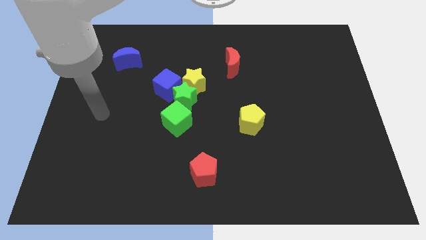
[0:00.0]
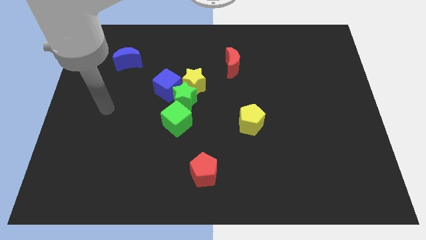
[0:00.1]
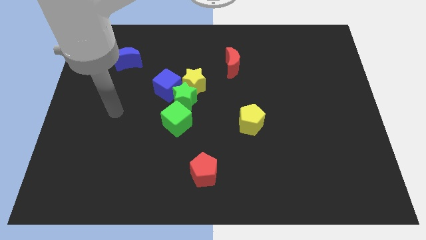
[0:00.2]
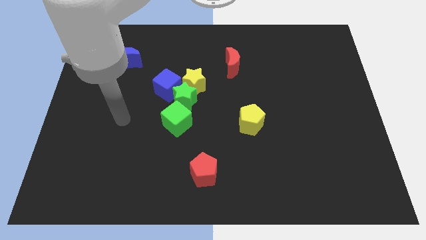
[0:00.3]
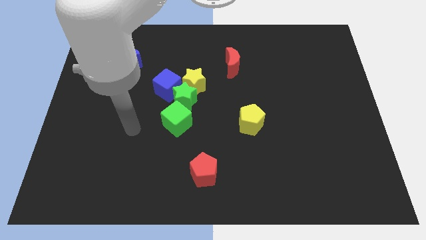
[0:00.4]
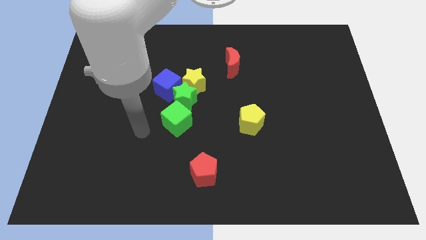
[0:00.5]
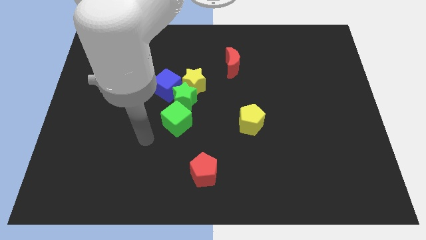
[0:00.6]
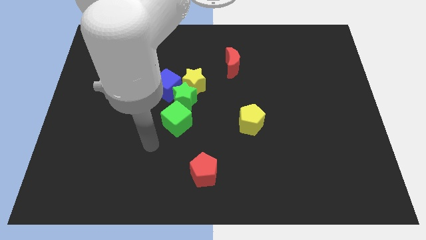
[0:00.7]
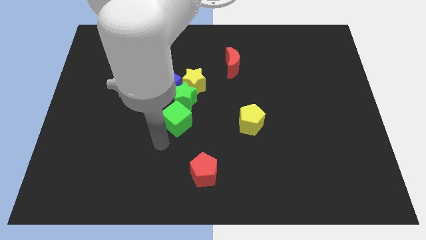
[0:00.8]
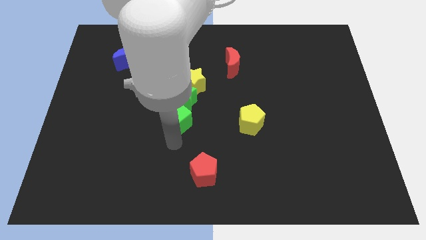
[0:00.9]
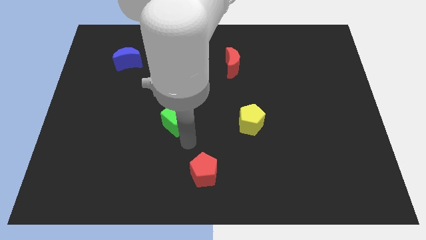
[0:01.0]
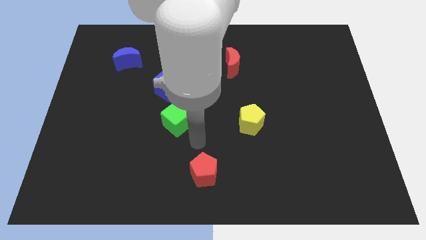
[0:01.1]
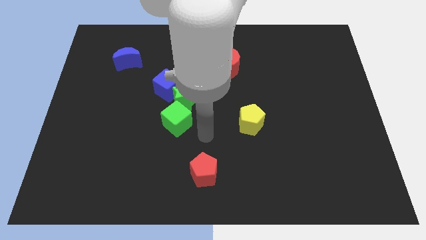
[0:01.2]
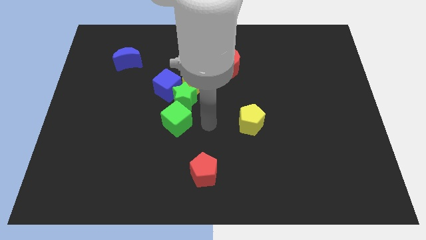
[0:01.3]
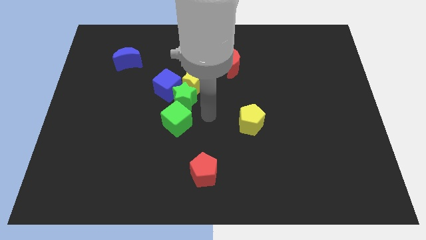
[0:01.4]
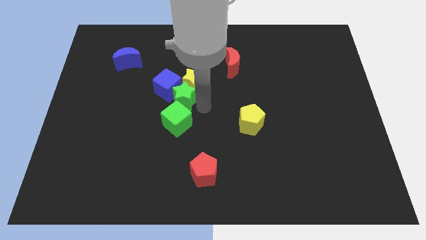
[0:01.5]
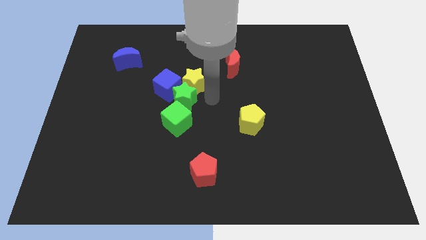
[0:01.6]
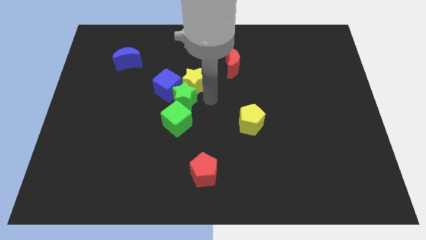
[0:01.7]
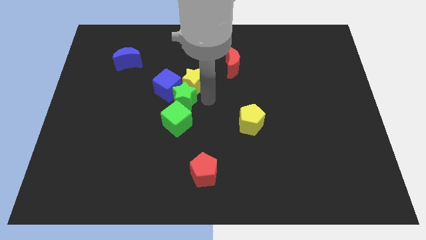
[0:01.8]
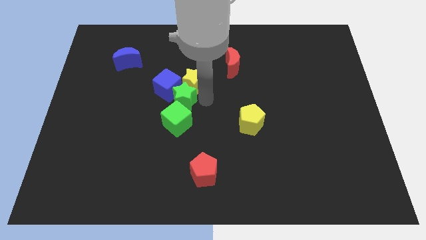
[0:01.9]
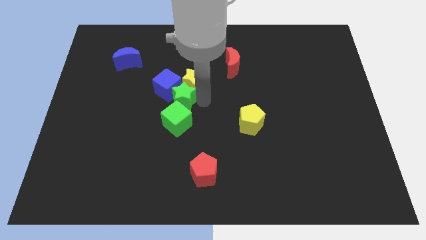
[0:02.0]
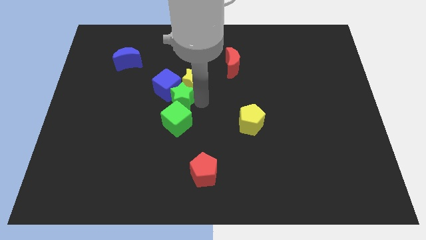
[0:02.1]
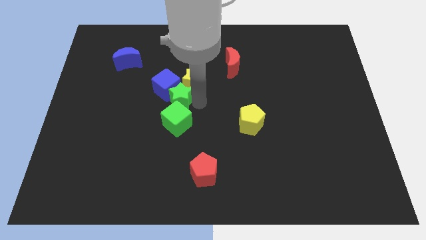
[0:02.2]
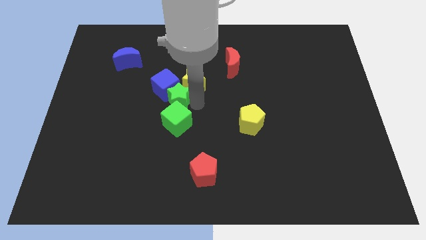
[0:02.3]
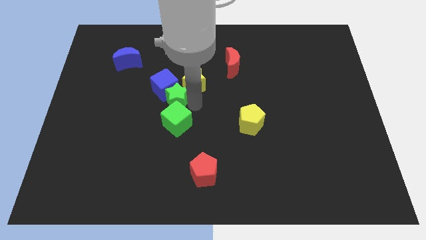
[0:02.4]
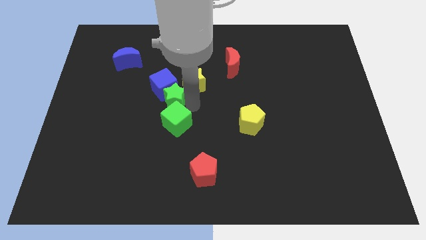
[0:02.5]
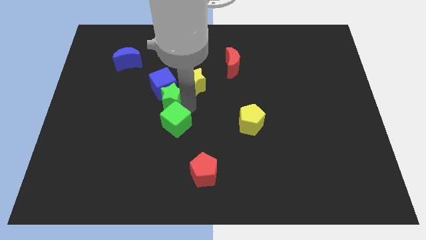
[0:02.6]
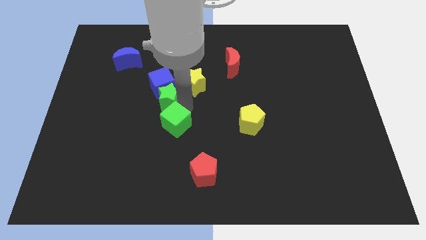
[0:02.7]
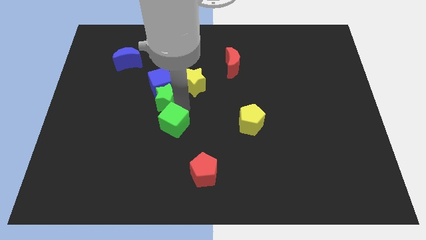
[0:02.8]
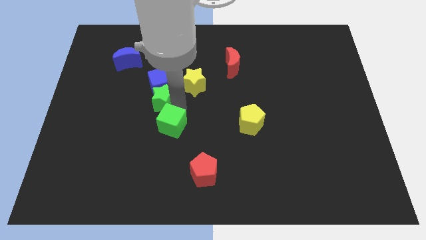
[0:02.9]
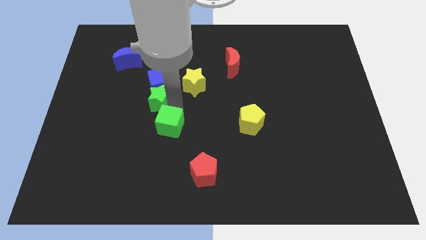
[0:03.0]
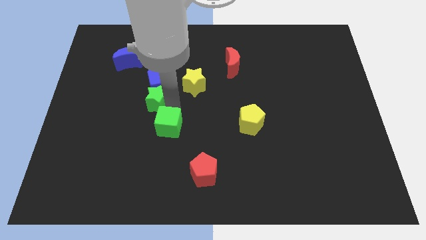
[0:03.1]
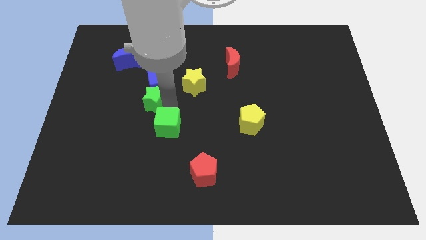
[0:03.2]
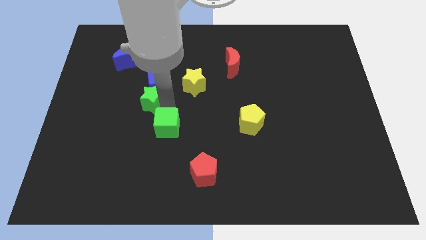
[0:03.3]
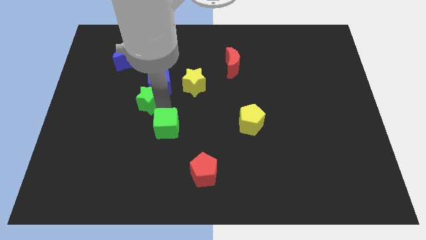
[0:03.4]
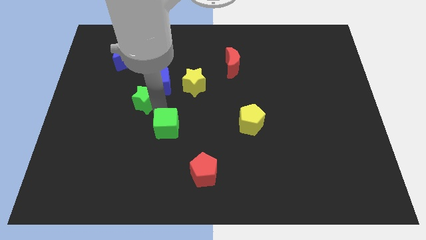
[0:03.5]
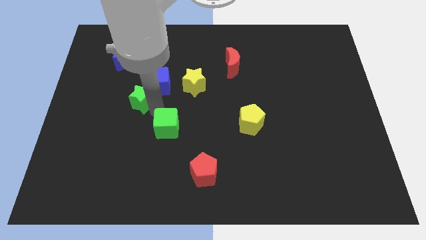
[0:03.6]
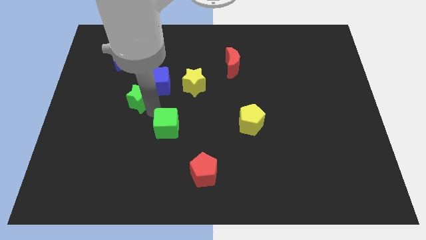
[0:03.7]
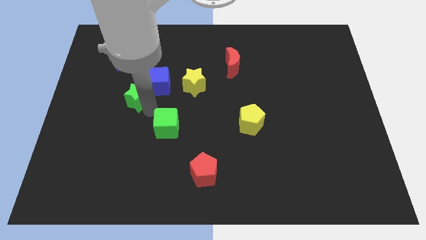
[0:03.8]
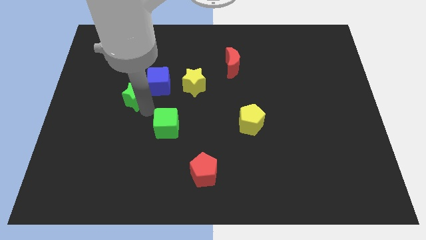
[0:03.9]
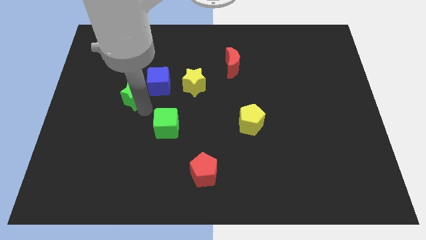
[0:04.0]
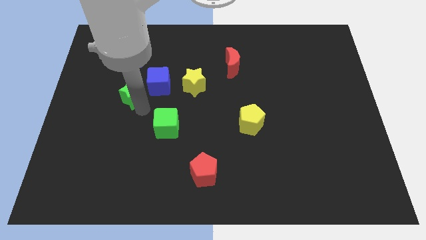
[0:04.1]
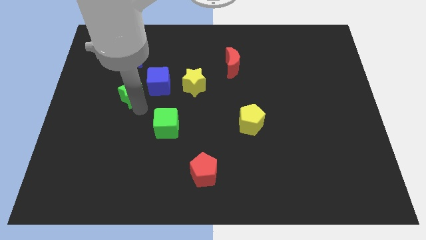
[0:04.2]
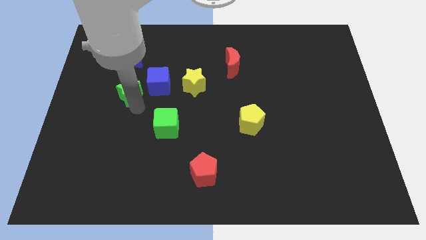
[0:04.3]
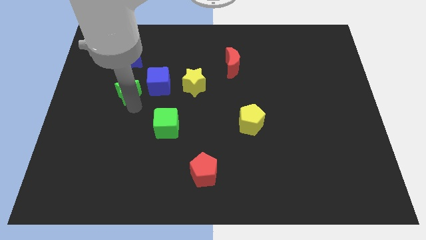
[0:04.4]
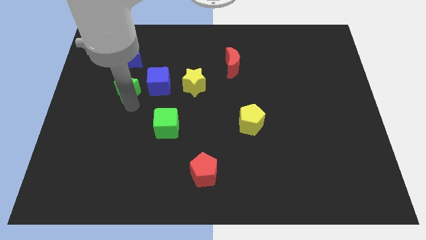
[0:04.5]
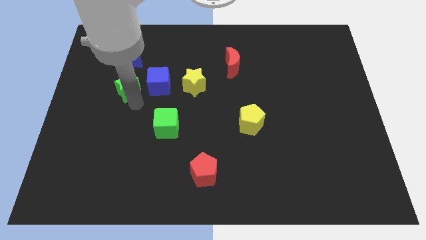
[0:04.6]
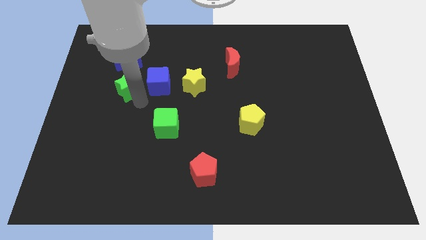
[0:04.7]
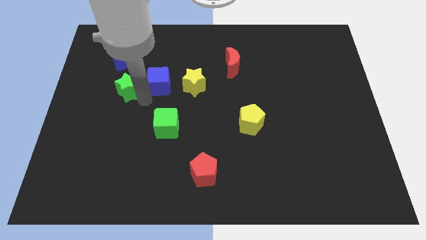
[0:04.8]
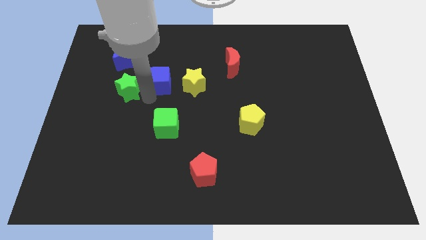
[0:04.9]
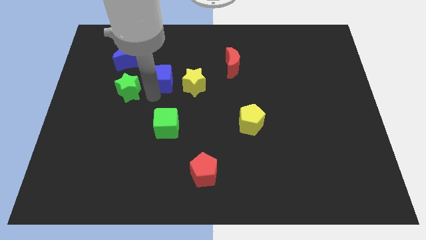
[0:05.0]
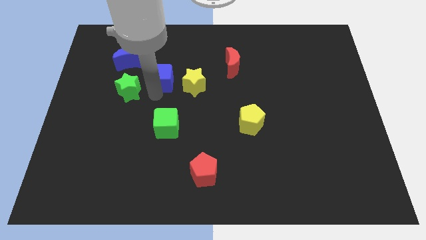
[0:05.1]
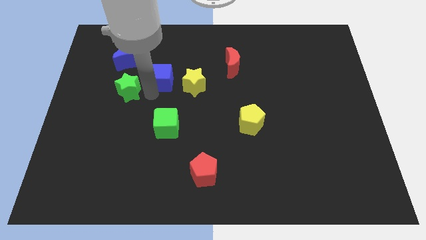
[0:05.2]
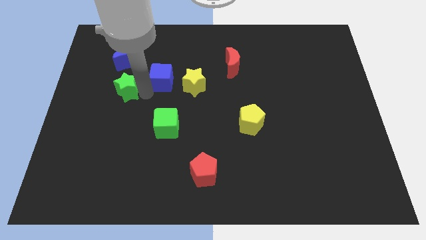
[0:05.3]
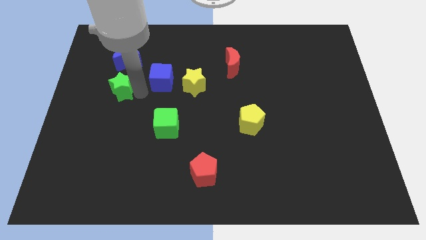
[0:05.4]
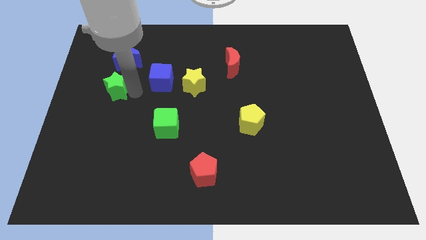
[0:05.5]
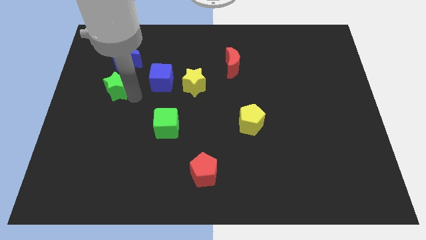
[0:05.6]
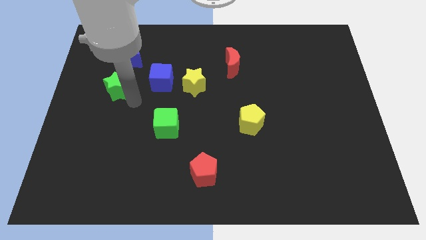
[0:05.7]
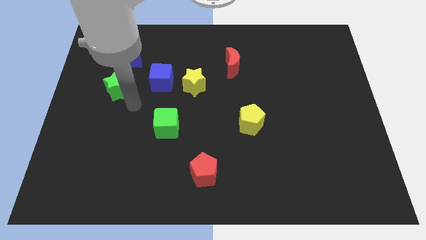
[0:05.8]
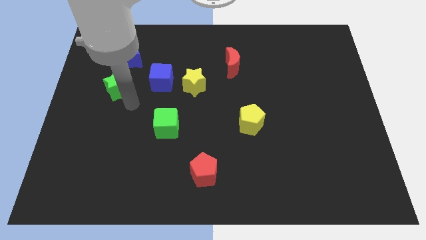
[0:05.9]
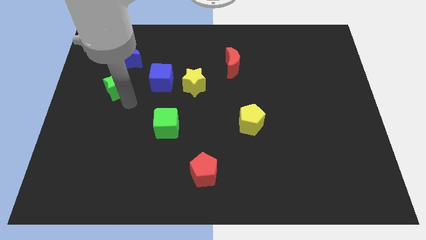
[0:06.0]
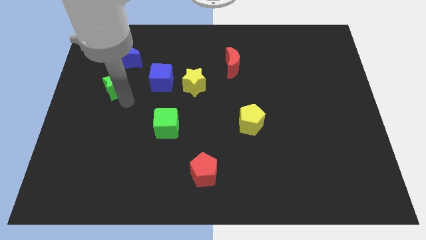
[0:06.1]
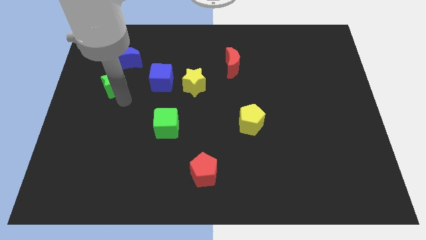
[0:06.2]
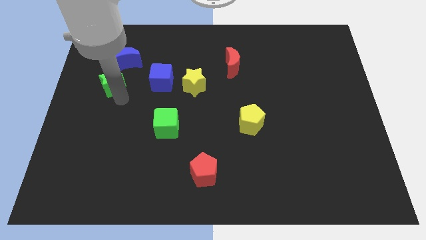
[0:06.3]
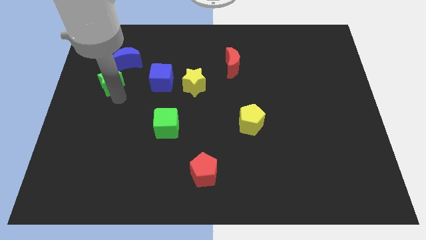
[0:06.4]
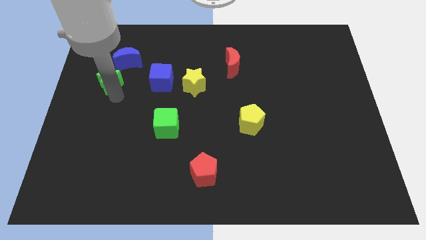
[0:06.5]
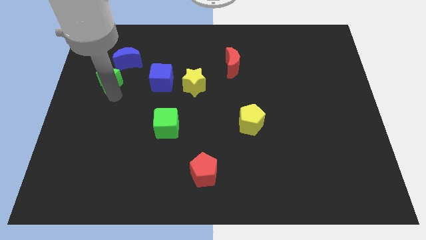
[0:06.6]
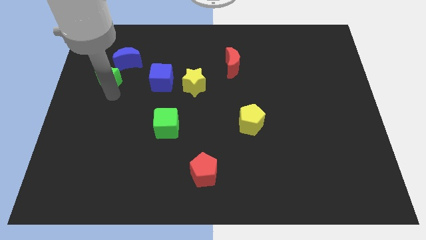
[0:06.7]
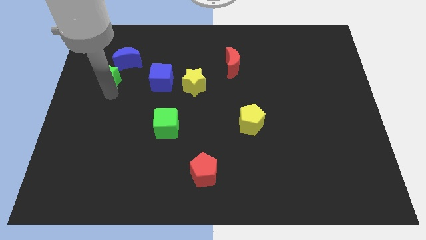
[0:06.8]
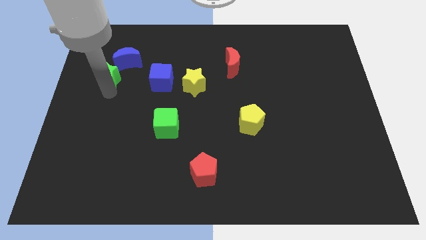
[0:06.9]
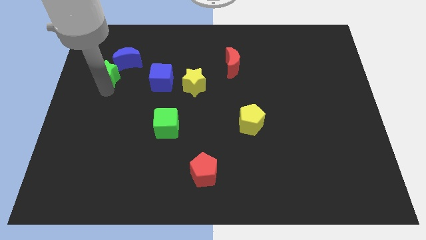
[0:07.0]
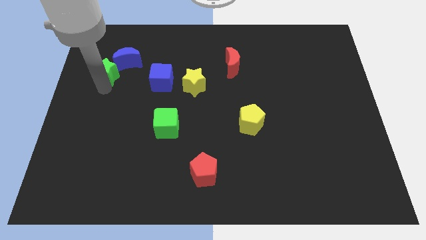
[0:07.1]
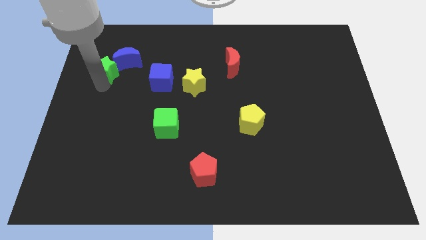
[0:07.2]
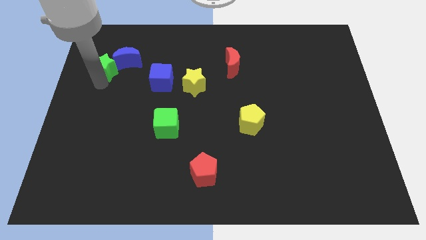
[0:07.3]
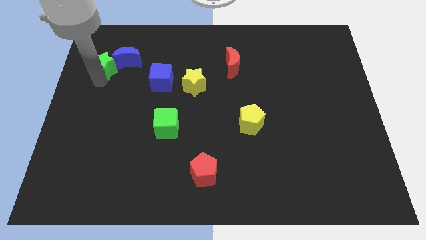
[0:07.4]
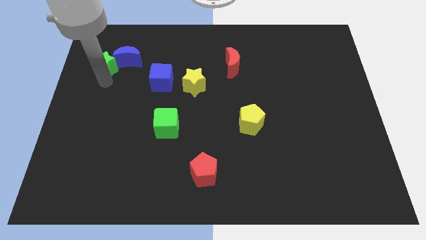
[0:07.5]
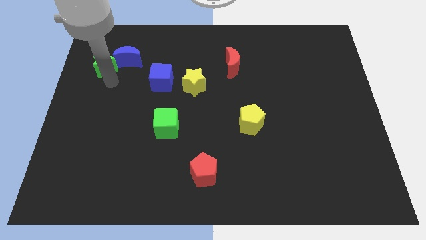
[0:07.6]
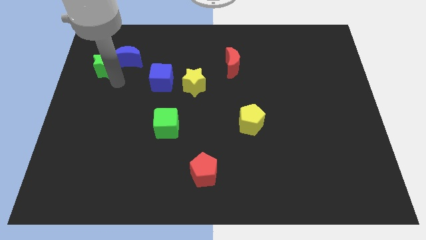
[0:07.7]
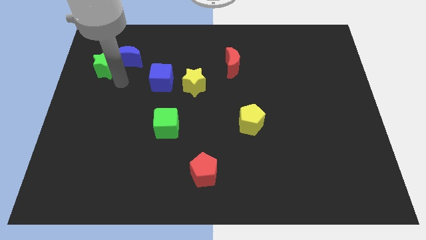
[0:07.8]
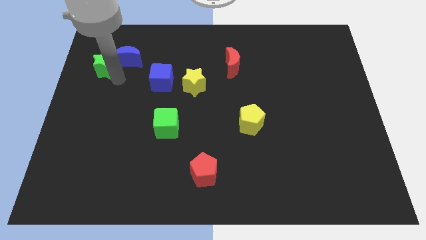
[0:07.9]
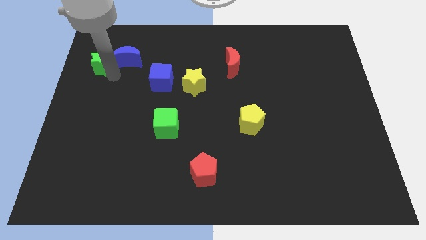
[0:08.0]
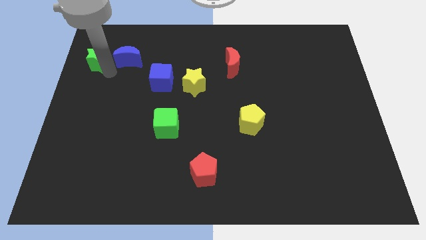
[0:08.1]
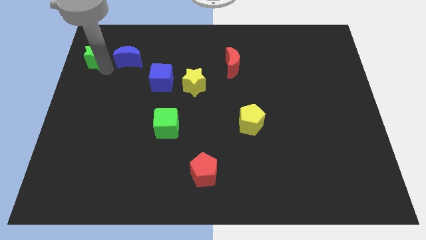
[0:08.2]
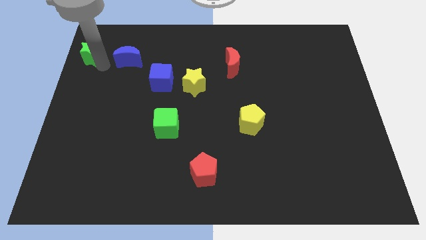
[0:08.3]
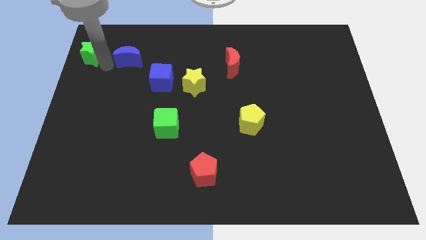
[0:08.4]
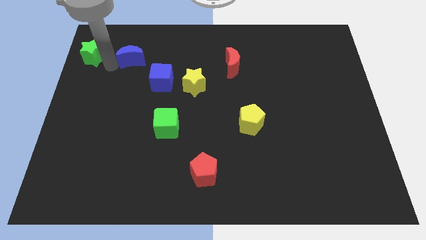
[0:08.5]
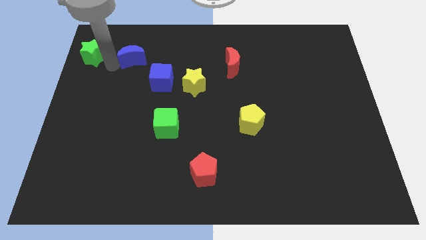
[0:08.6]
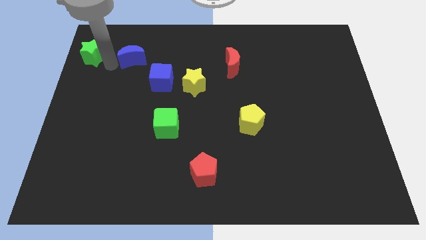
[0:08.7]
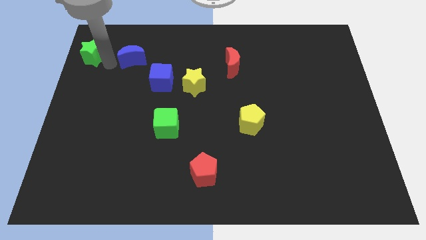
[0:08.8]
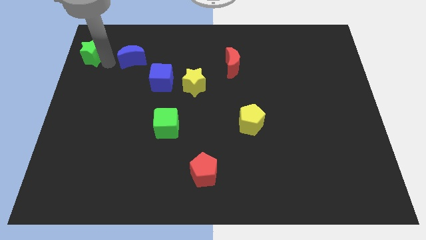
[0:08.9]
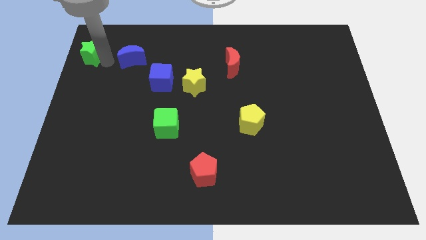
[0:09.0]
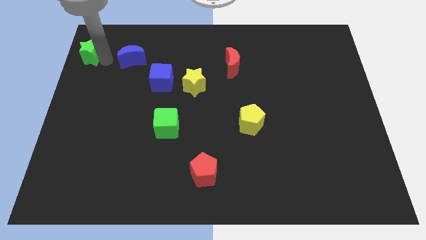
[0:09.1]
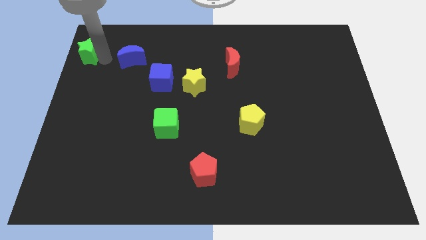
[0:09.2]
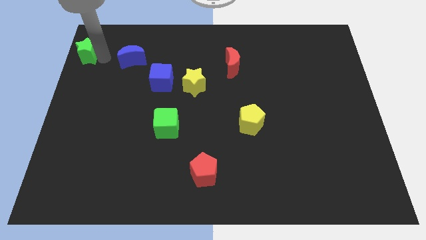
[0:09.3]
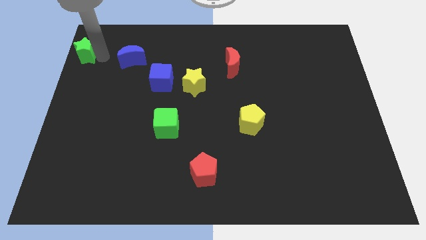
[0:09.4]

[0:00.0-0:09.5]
slide the green star to the upper left corner
